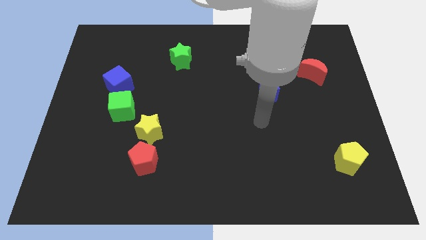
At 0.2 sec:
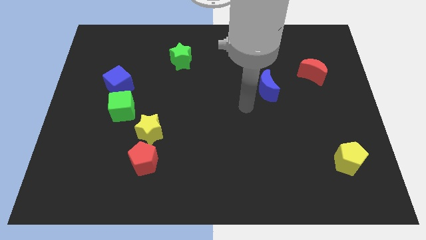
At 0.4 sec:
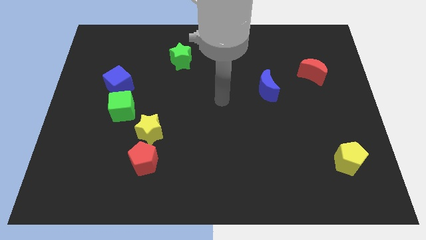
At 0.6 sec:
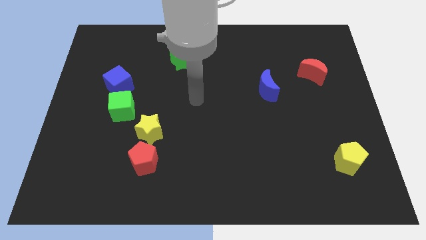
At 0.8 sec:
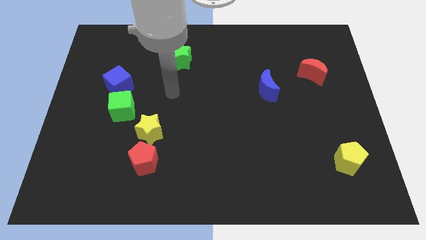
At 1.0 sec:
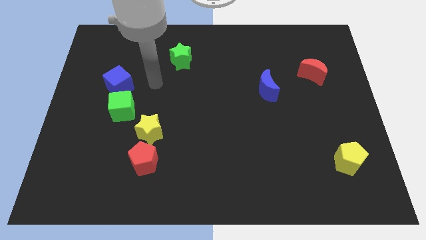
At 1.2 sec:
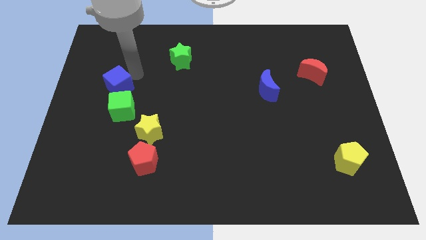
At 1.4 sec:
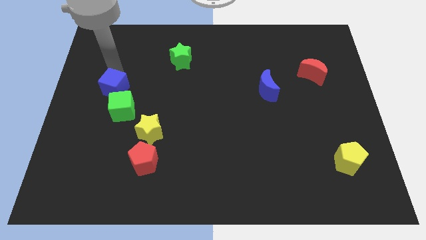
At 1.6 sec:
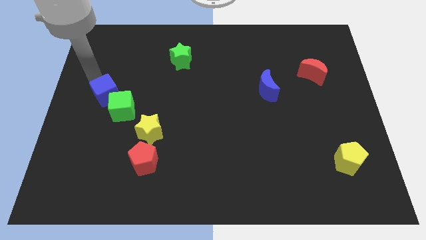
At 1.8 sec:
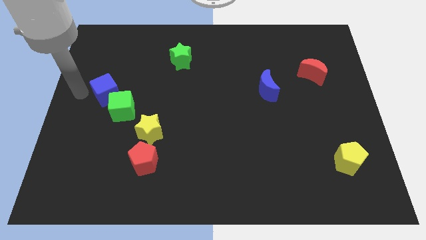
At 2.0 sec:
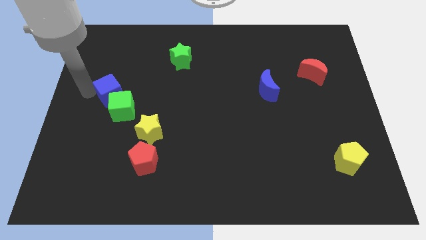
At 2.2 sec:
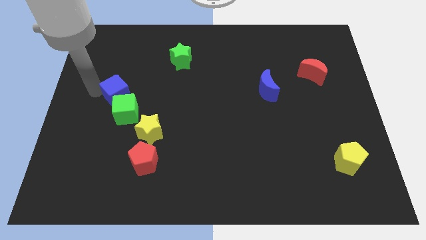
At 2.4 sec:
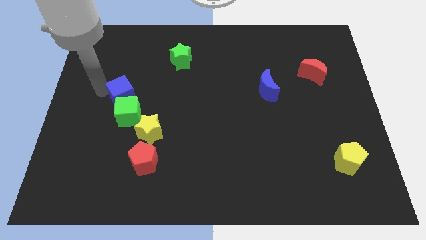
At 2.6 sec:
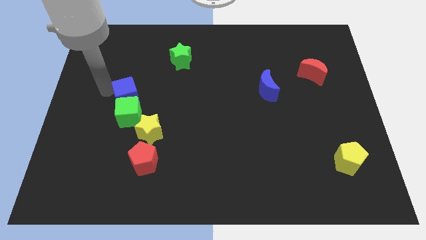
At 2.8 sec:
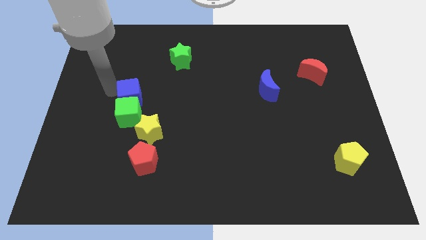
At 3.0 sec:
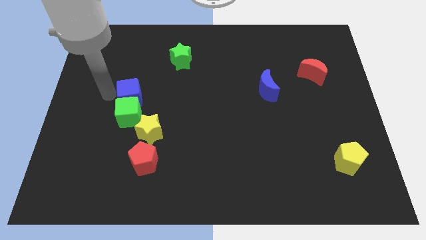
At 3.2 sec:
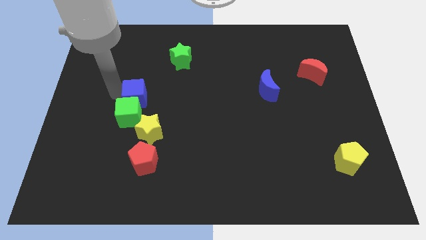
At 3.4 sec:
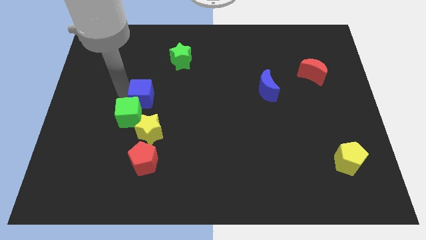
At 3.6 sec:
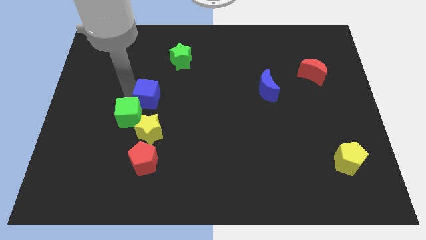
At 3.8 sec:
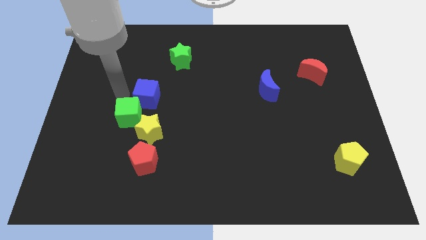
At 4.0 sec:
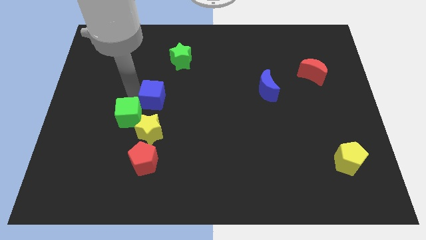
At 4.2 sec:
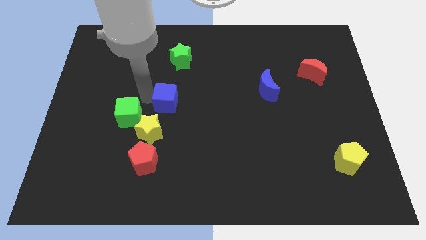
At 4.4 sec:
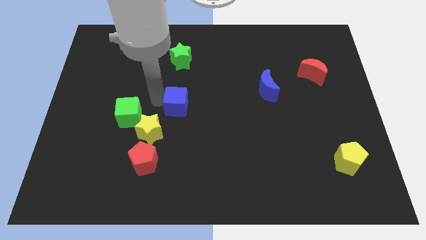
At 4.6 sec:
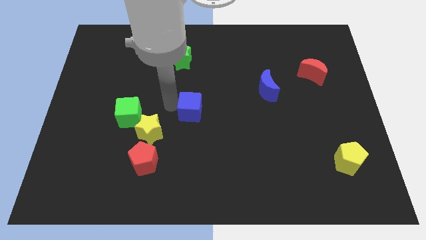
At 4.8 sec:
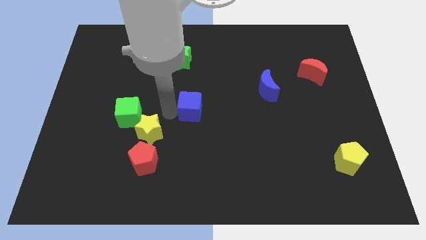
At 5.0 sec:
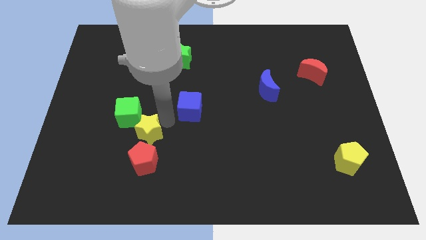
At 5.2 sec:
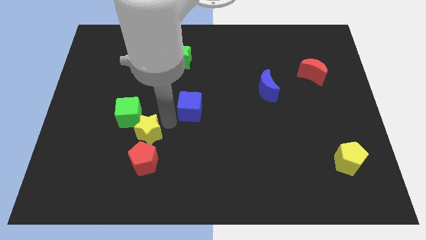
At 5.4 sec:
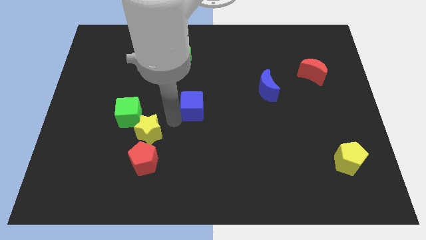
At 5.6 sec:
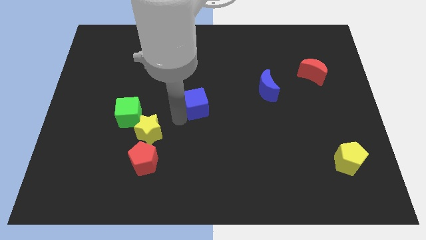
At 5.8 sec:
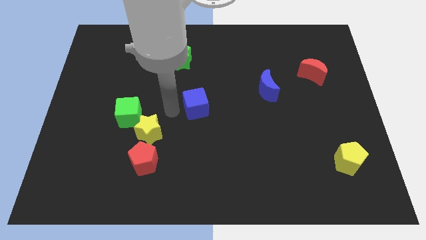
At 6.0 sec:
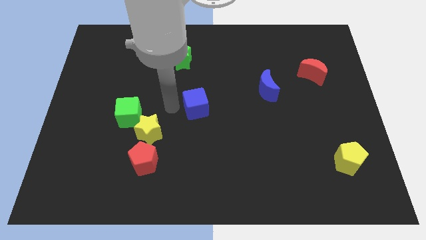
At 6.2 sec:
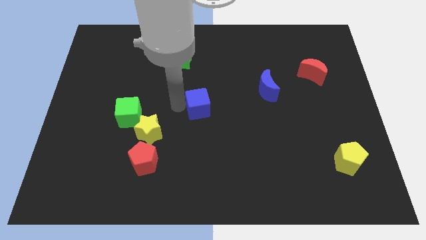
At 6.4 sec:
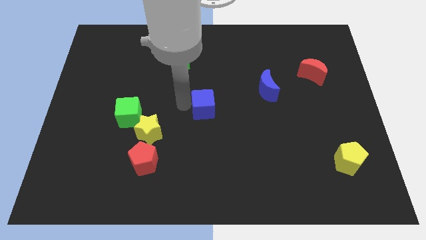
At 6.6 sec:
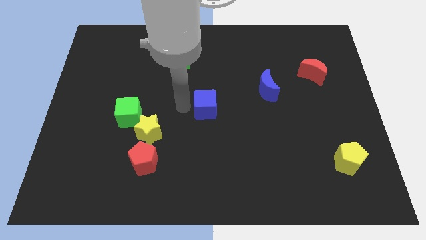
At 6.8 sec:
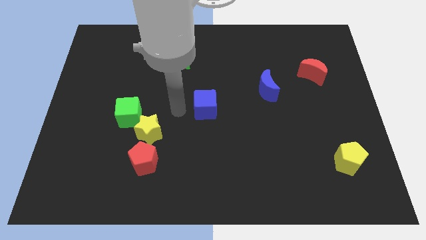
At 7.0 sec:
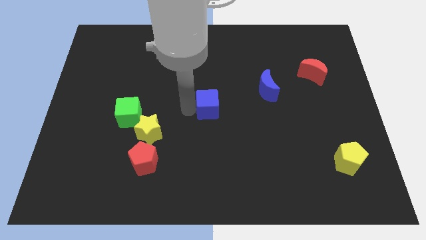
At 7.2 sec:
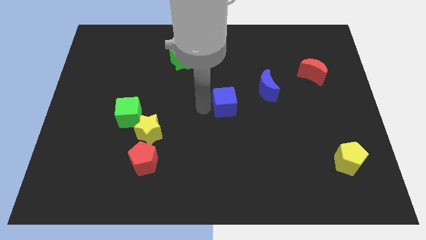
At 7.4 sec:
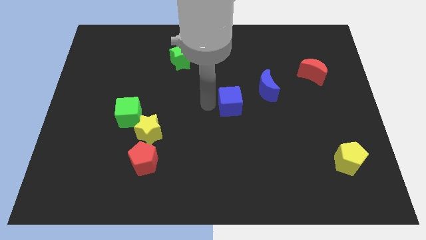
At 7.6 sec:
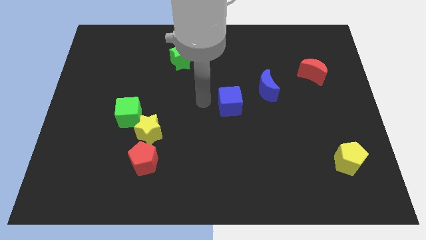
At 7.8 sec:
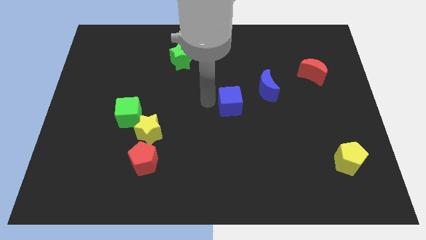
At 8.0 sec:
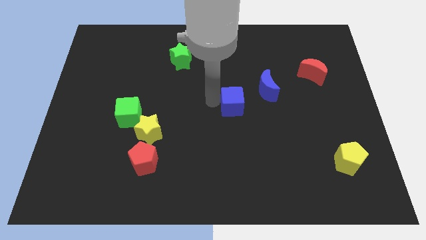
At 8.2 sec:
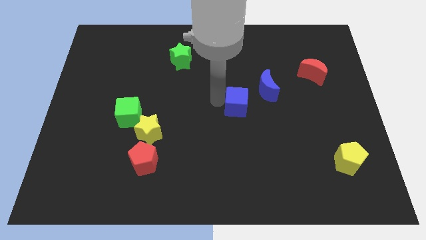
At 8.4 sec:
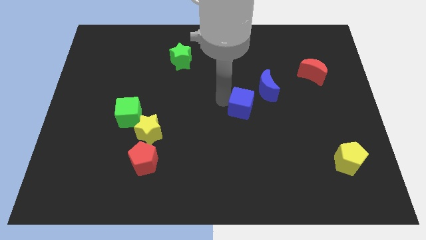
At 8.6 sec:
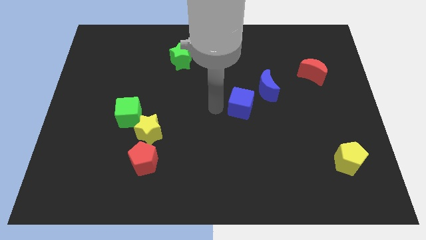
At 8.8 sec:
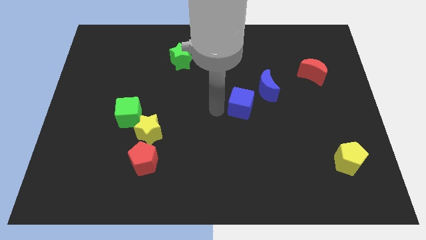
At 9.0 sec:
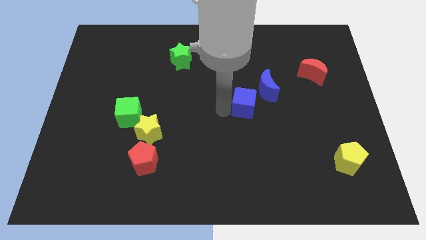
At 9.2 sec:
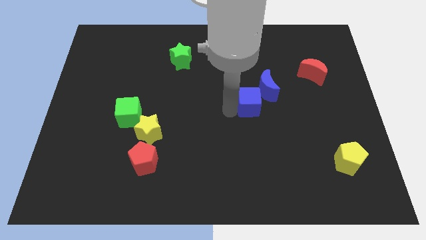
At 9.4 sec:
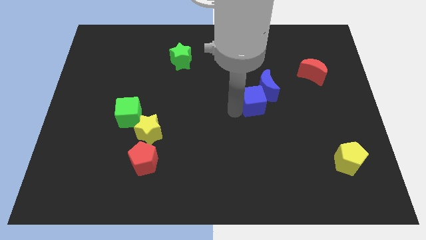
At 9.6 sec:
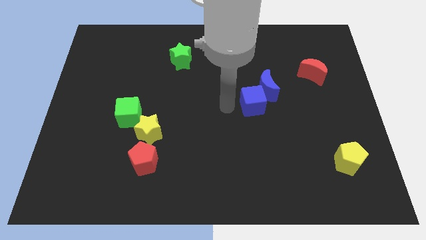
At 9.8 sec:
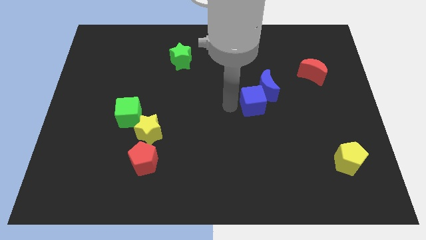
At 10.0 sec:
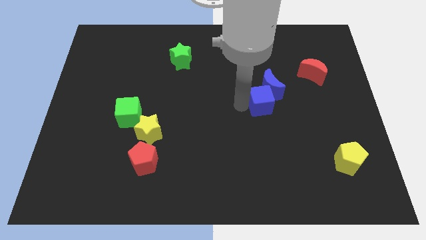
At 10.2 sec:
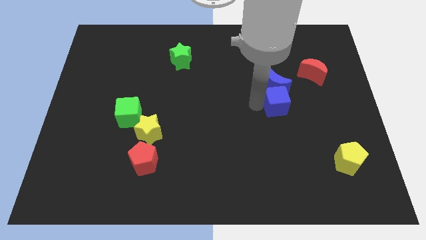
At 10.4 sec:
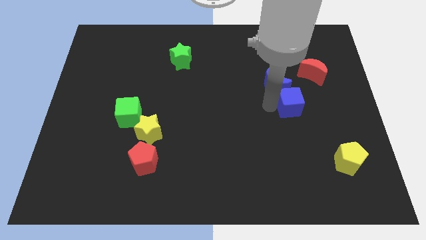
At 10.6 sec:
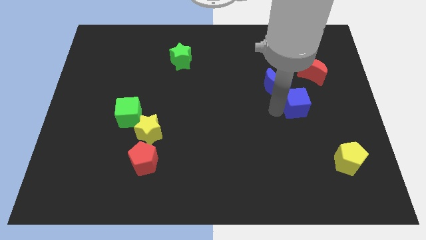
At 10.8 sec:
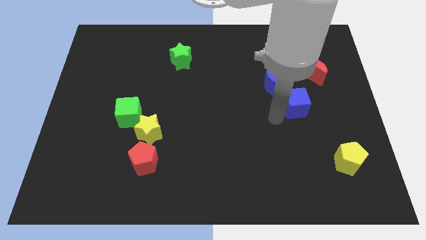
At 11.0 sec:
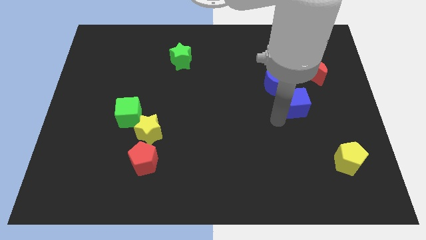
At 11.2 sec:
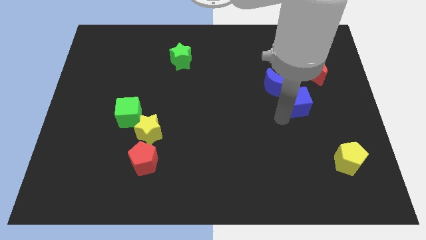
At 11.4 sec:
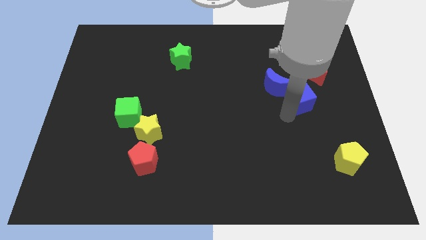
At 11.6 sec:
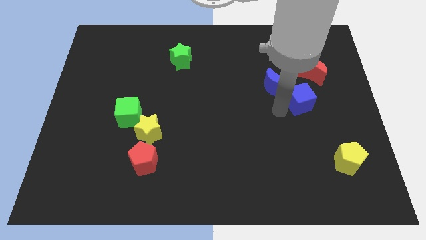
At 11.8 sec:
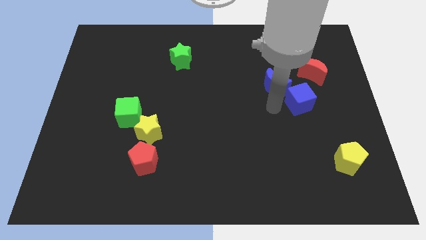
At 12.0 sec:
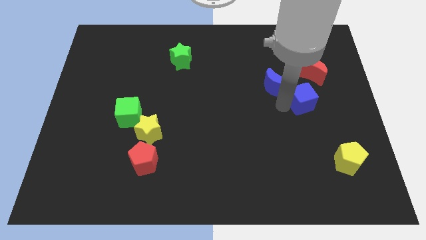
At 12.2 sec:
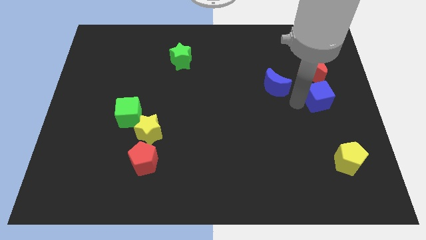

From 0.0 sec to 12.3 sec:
put the blue cube to the center right

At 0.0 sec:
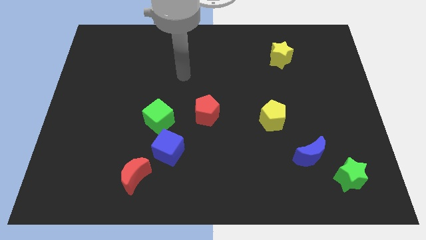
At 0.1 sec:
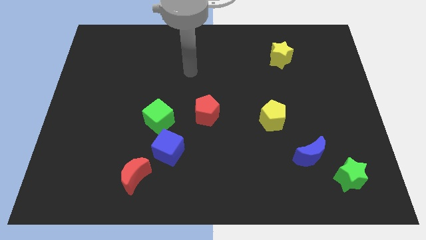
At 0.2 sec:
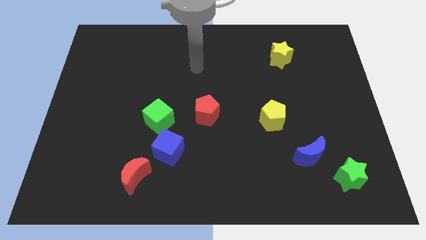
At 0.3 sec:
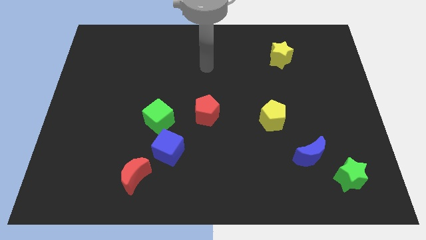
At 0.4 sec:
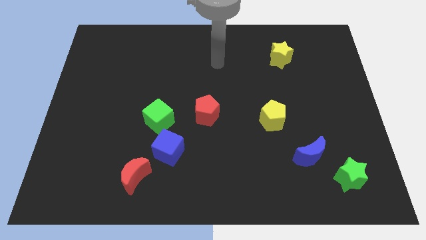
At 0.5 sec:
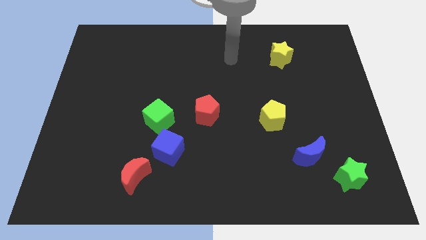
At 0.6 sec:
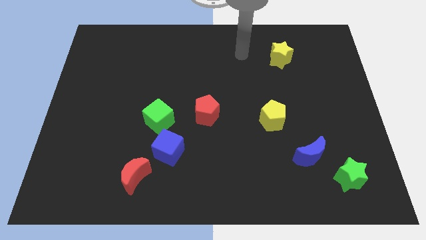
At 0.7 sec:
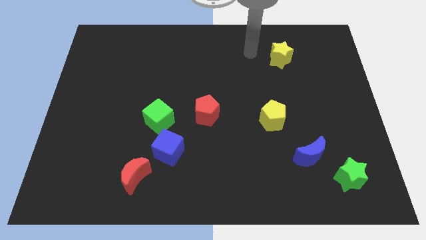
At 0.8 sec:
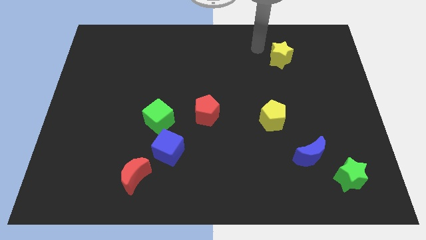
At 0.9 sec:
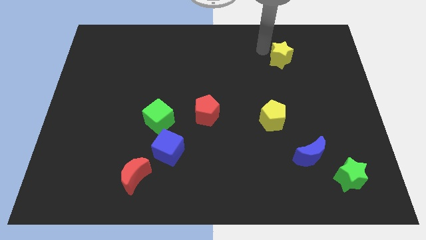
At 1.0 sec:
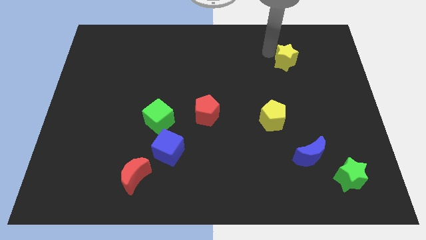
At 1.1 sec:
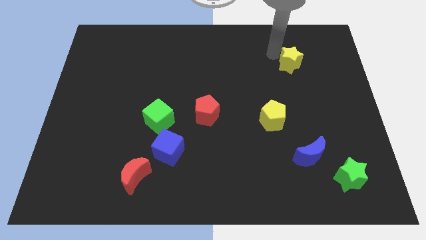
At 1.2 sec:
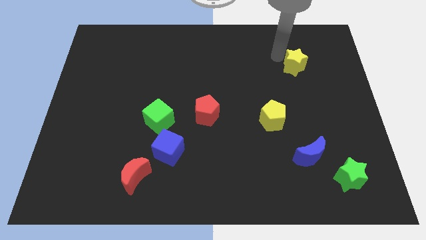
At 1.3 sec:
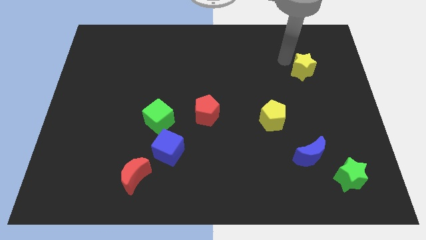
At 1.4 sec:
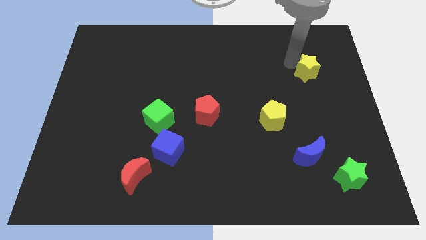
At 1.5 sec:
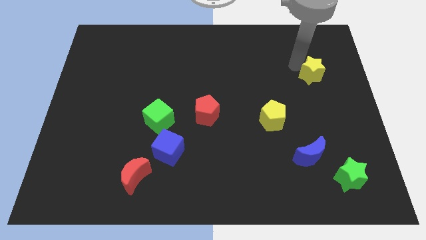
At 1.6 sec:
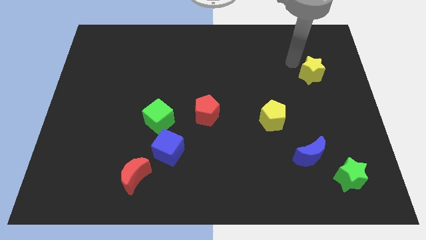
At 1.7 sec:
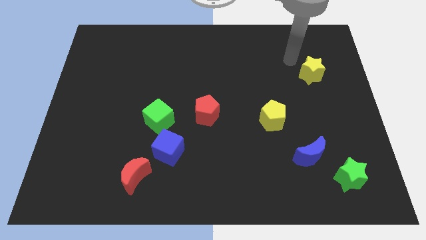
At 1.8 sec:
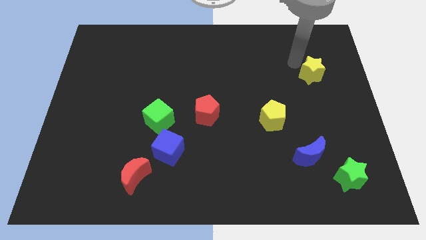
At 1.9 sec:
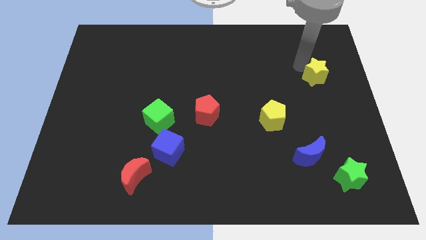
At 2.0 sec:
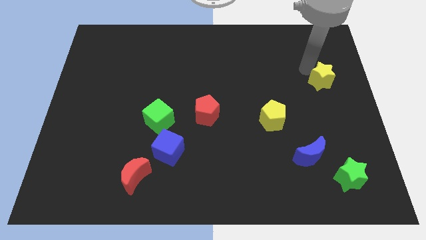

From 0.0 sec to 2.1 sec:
push the yellow star to the right side of the board
